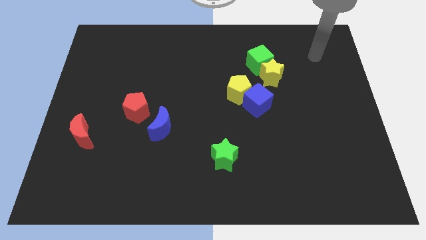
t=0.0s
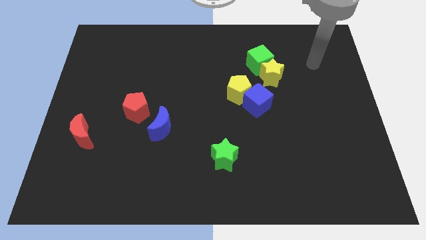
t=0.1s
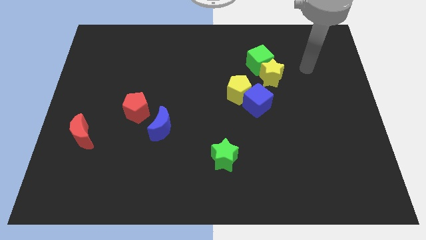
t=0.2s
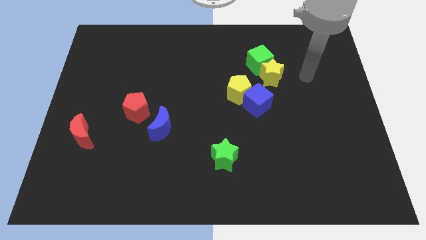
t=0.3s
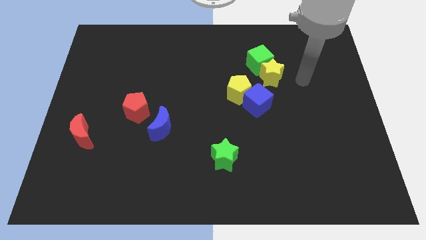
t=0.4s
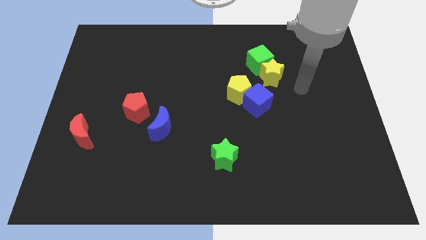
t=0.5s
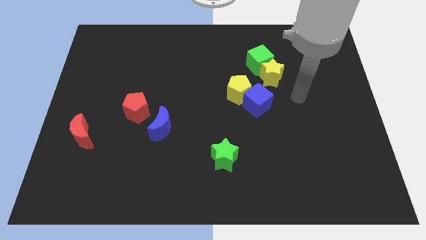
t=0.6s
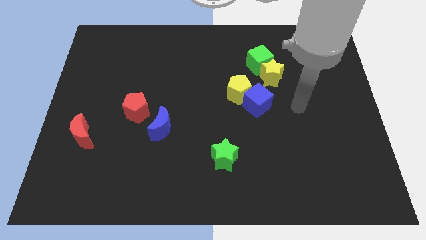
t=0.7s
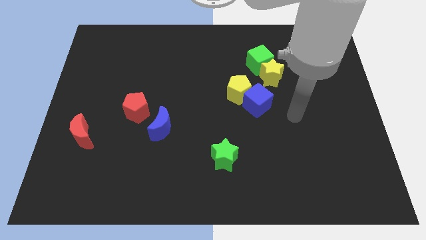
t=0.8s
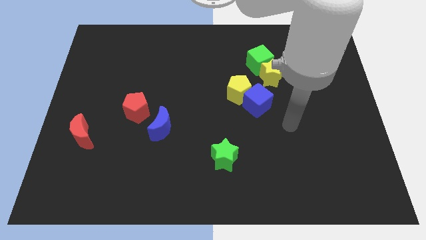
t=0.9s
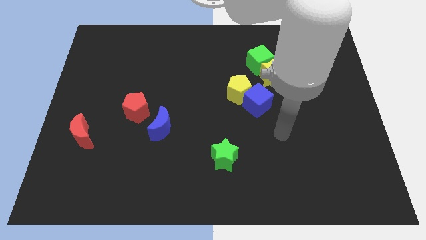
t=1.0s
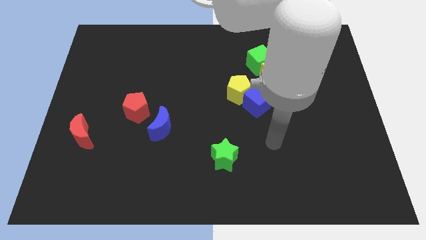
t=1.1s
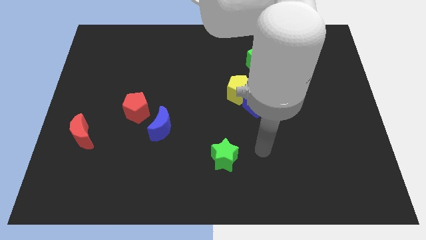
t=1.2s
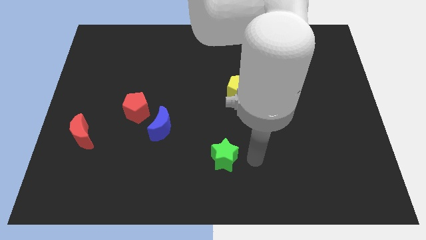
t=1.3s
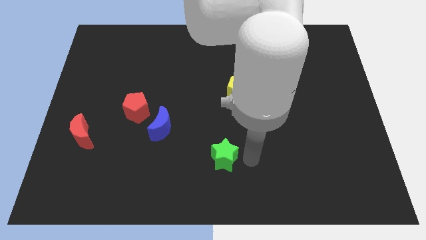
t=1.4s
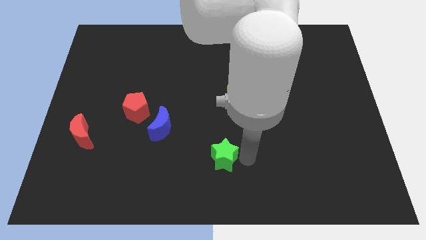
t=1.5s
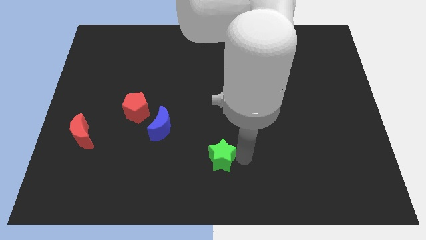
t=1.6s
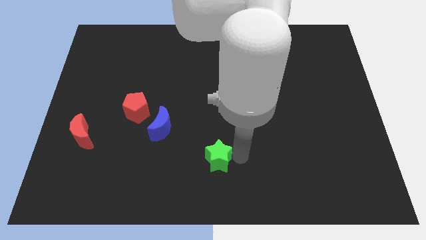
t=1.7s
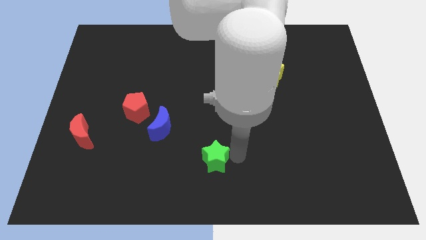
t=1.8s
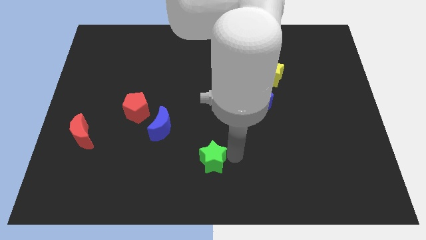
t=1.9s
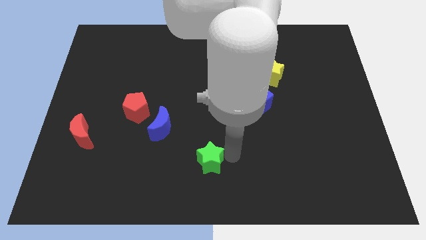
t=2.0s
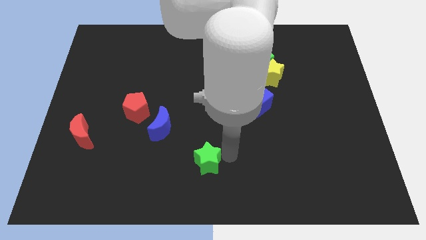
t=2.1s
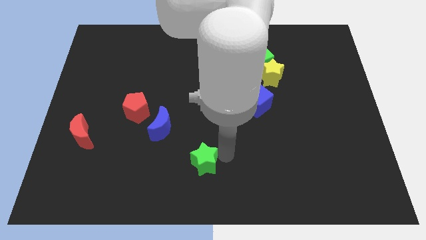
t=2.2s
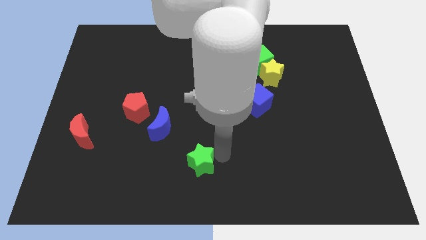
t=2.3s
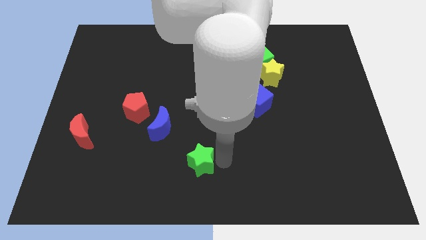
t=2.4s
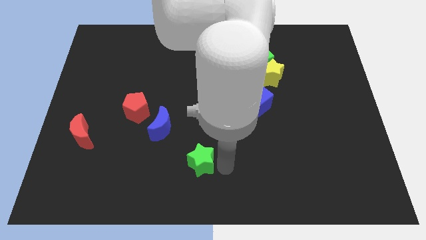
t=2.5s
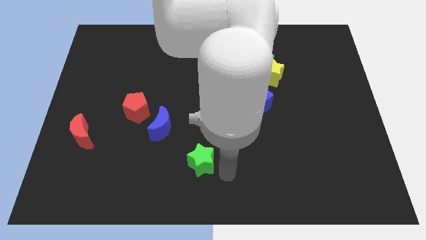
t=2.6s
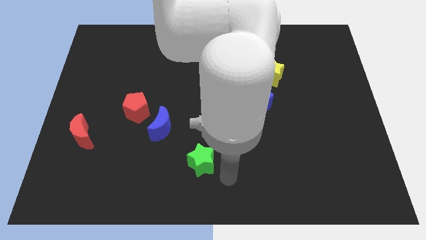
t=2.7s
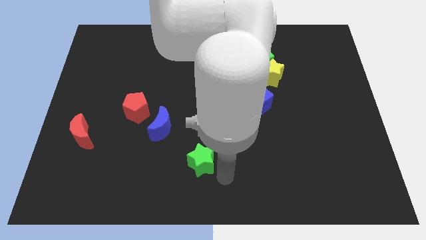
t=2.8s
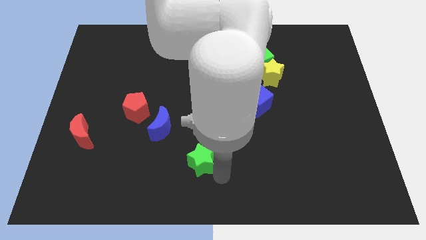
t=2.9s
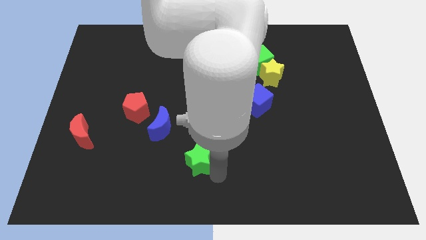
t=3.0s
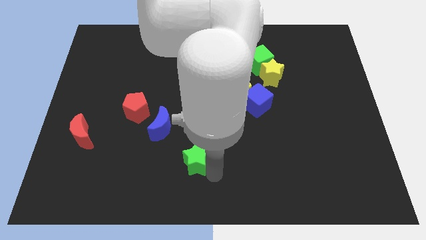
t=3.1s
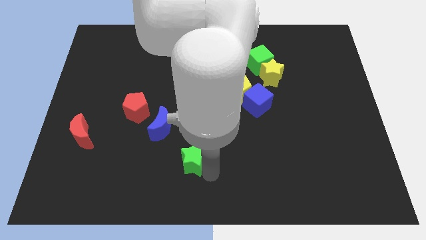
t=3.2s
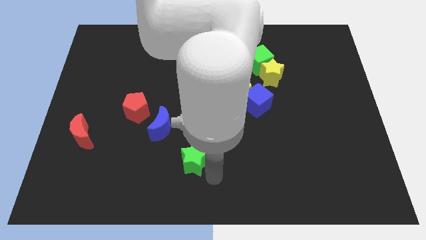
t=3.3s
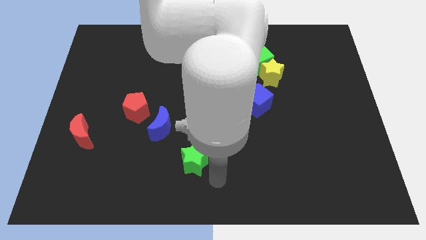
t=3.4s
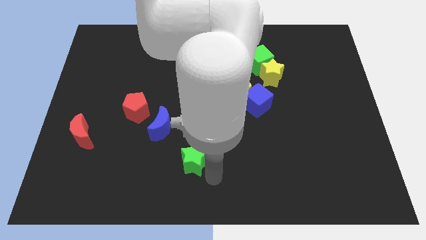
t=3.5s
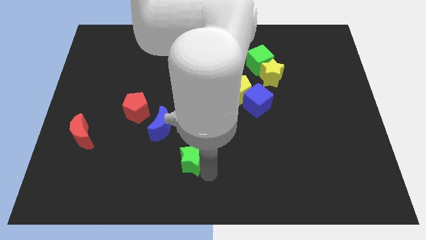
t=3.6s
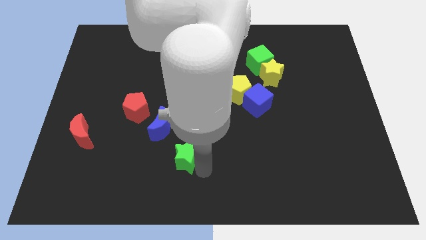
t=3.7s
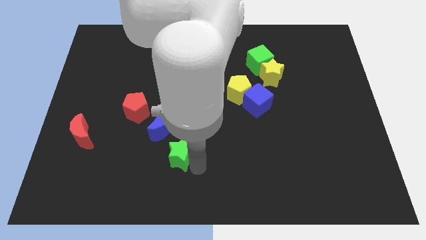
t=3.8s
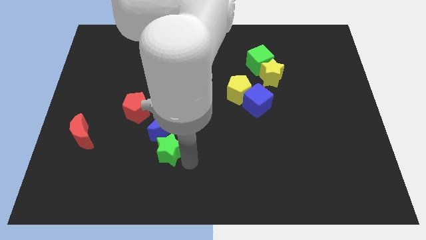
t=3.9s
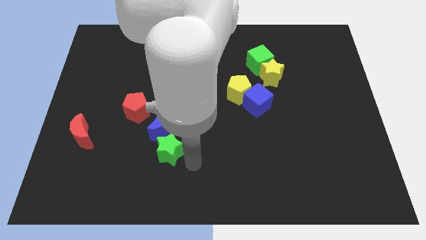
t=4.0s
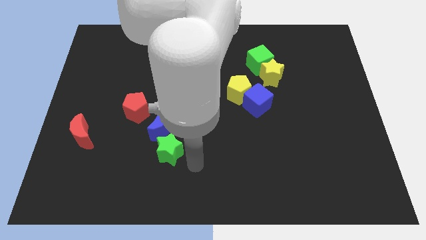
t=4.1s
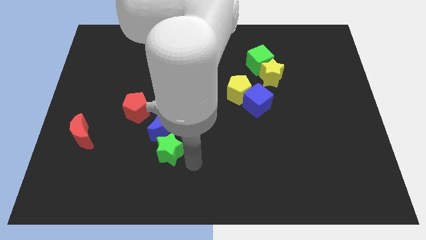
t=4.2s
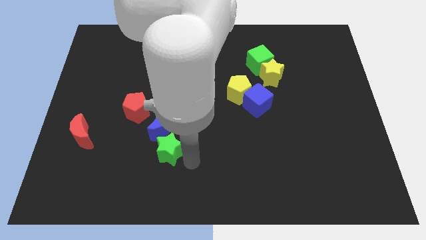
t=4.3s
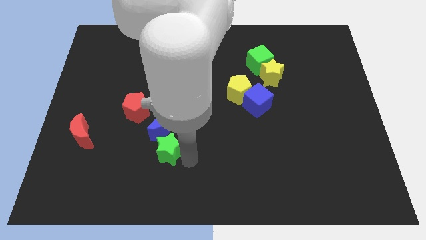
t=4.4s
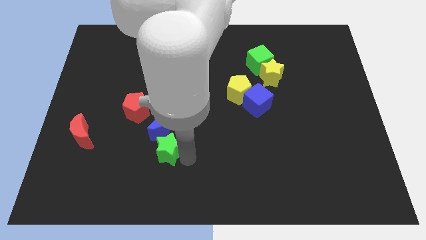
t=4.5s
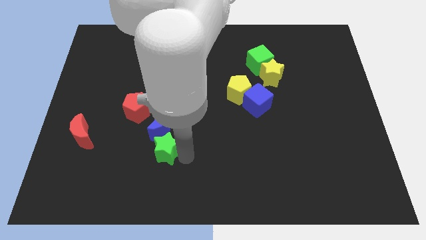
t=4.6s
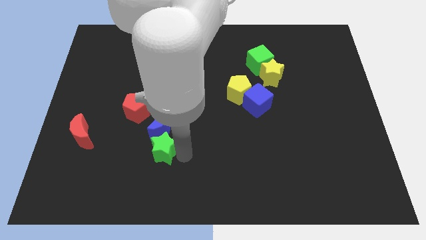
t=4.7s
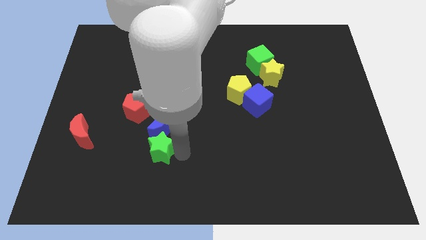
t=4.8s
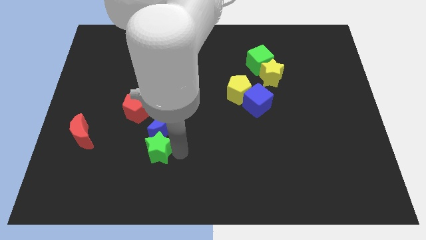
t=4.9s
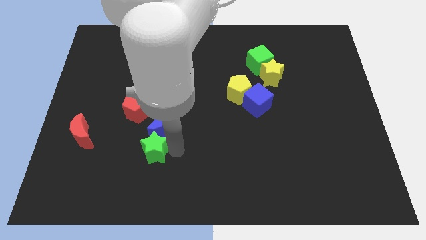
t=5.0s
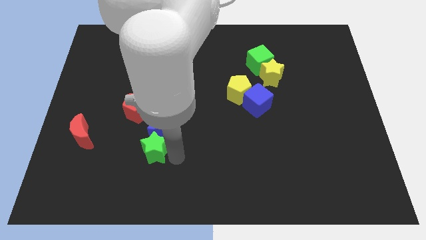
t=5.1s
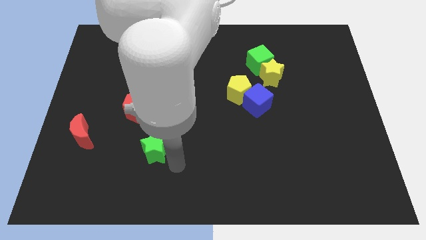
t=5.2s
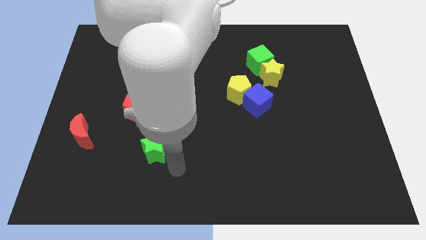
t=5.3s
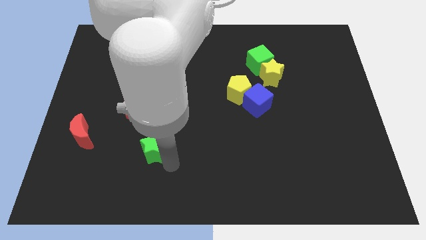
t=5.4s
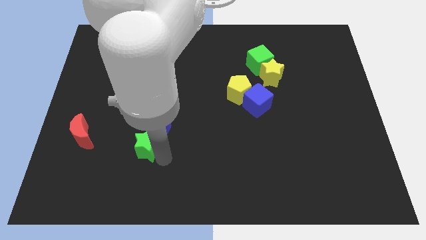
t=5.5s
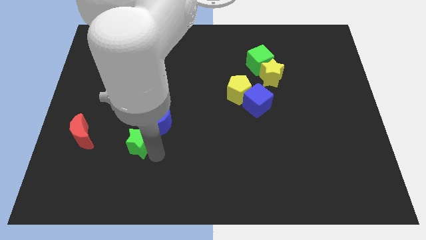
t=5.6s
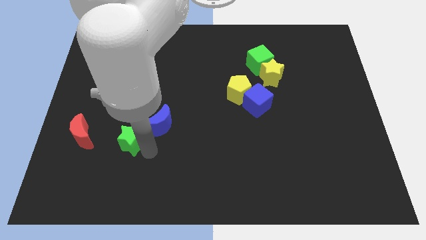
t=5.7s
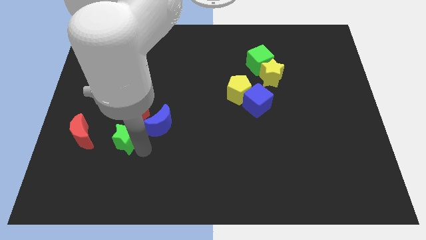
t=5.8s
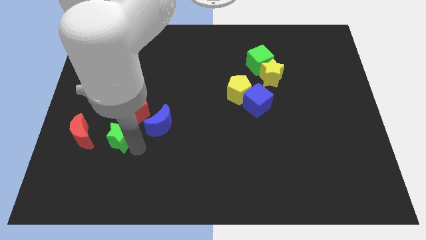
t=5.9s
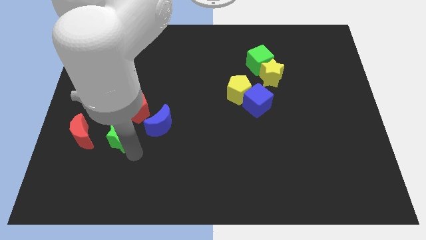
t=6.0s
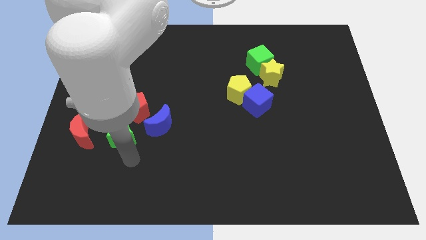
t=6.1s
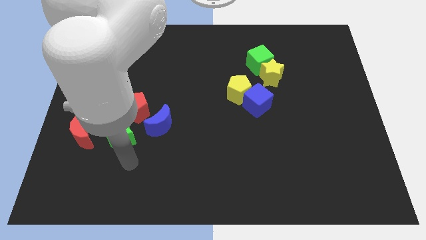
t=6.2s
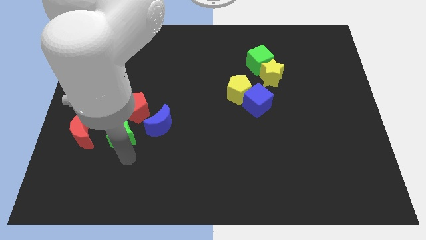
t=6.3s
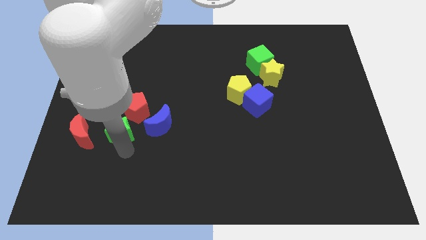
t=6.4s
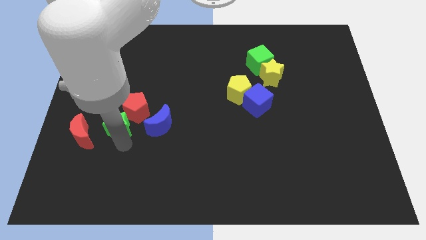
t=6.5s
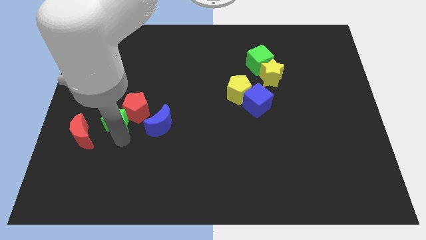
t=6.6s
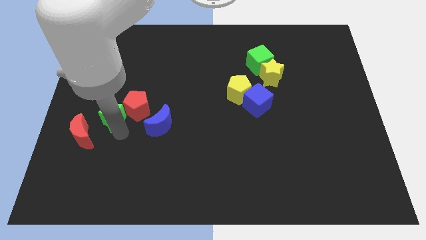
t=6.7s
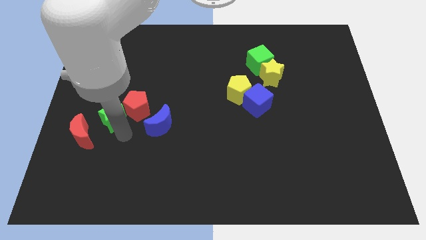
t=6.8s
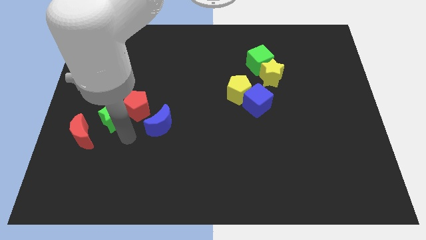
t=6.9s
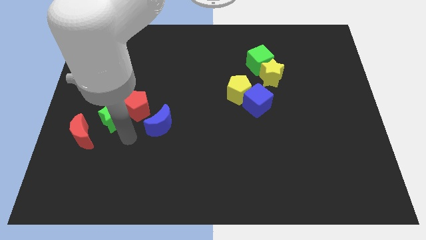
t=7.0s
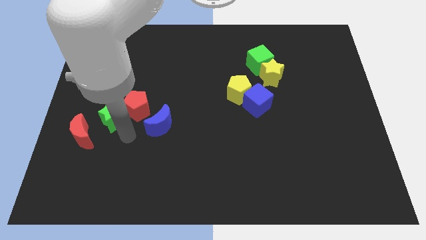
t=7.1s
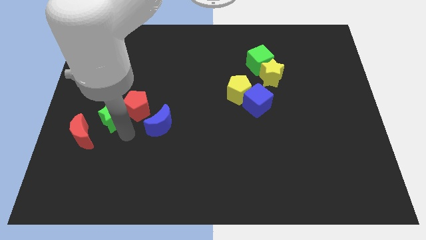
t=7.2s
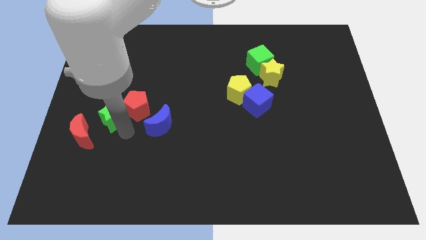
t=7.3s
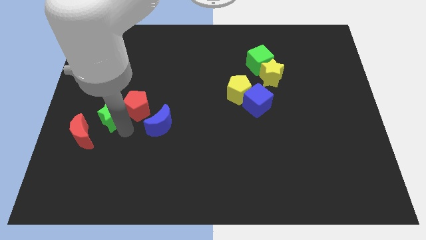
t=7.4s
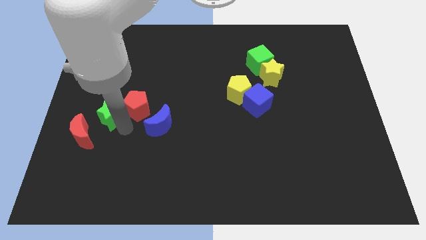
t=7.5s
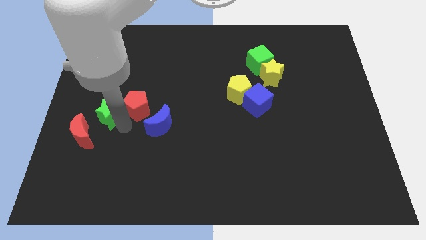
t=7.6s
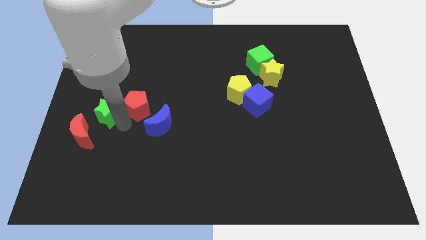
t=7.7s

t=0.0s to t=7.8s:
put the green star to the top of the red moon

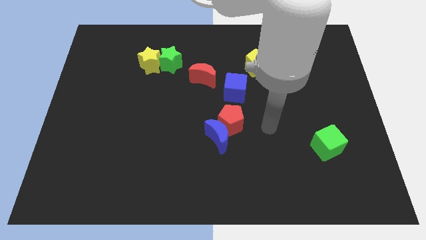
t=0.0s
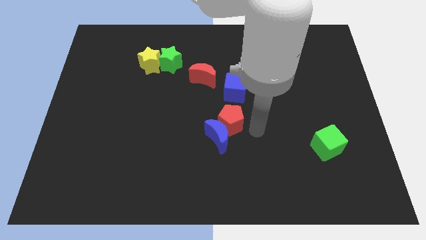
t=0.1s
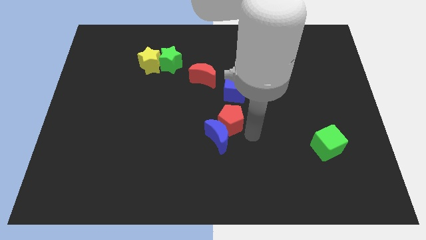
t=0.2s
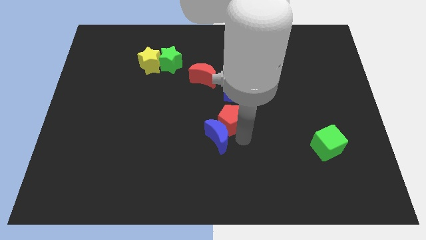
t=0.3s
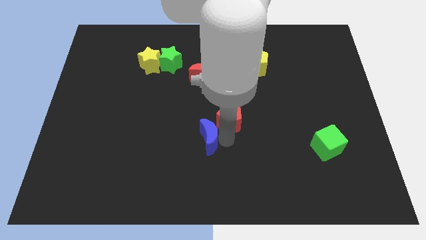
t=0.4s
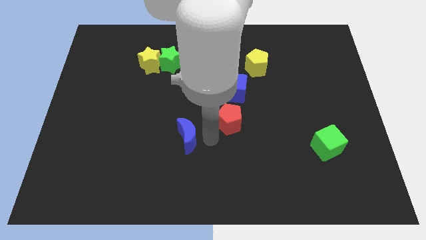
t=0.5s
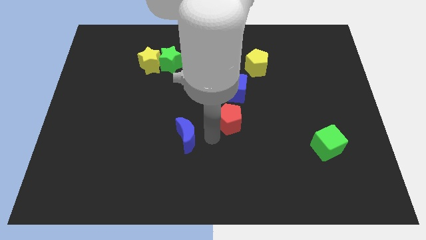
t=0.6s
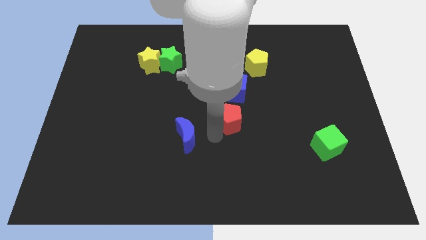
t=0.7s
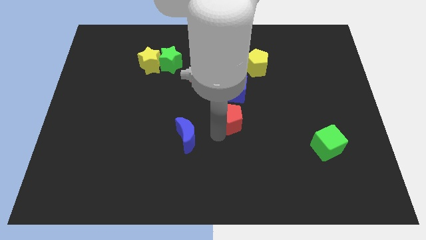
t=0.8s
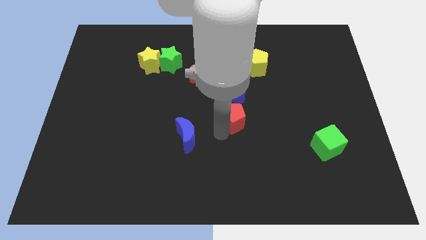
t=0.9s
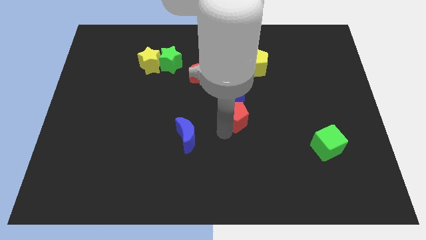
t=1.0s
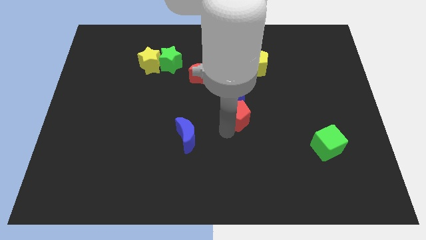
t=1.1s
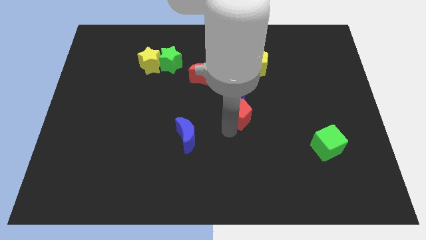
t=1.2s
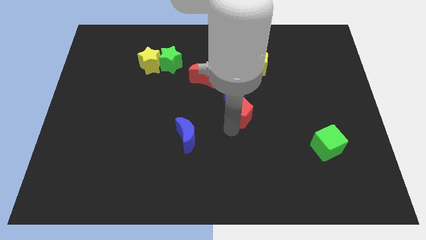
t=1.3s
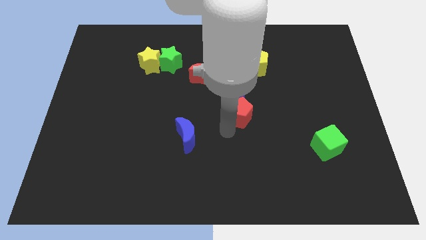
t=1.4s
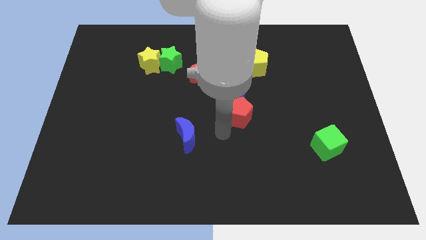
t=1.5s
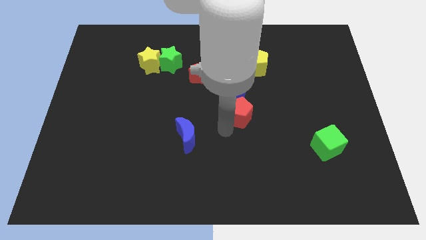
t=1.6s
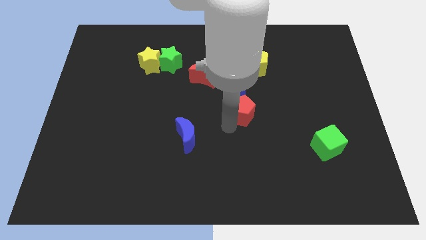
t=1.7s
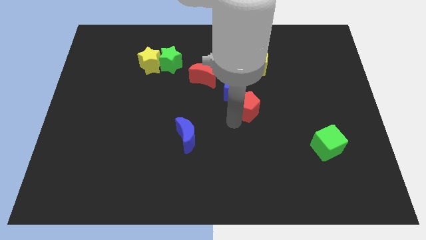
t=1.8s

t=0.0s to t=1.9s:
push the red pentagon to the bottom of the yellow pentagon
